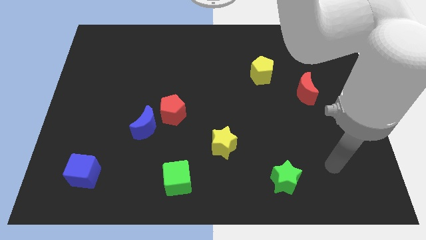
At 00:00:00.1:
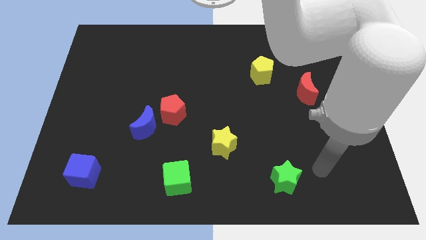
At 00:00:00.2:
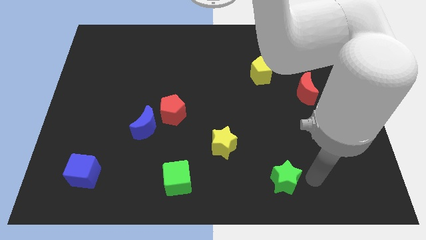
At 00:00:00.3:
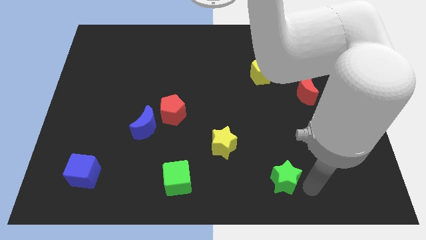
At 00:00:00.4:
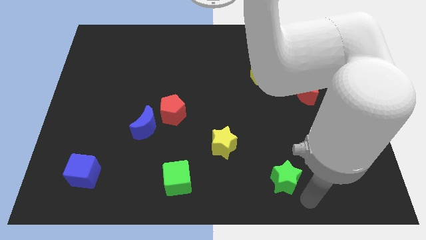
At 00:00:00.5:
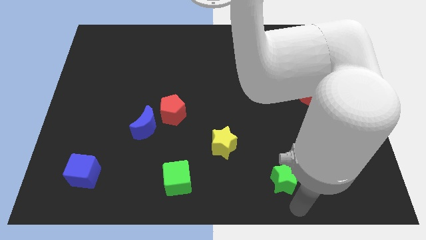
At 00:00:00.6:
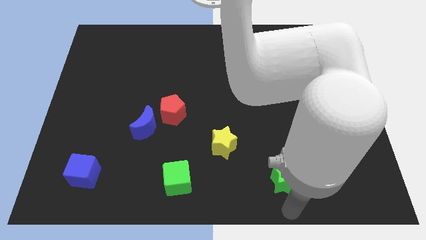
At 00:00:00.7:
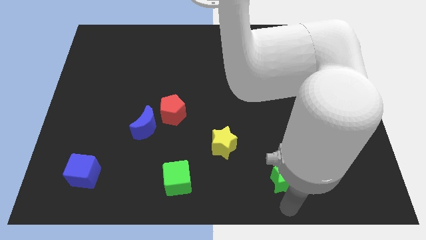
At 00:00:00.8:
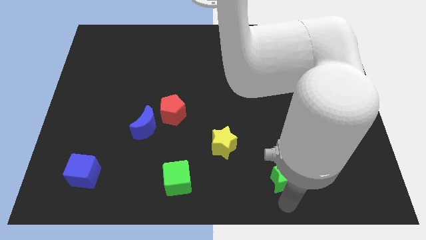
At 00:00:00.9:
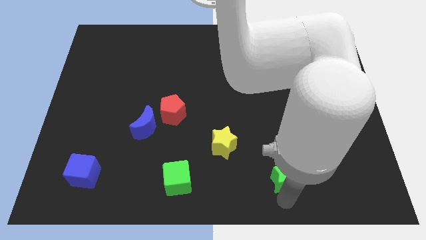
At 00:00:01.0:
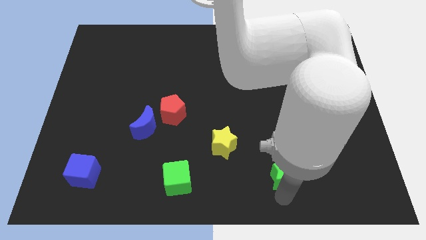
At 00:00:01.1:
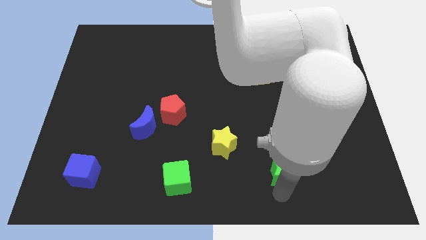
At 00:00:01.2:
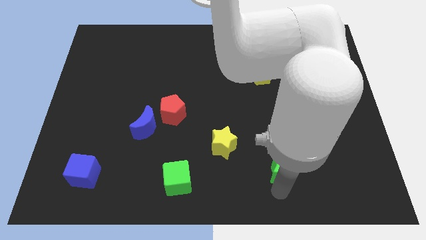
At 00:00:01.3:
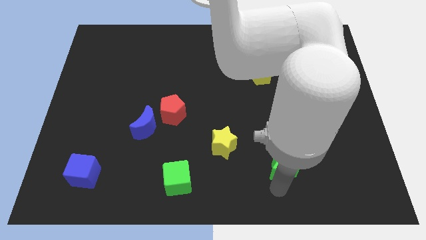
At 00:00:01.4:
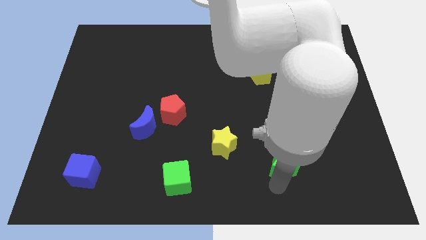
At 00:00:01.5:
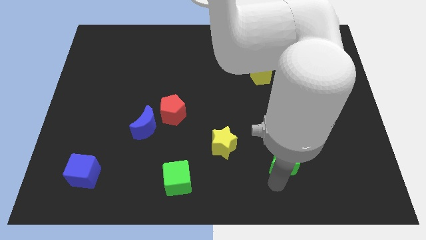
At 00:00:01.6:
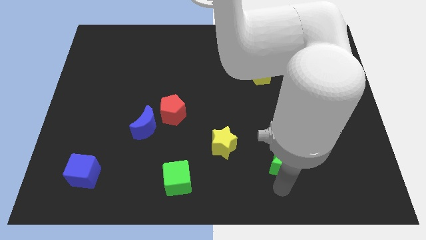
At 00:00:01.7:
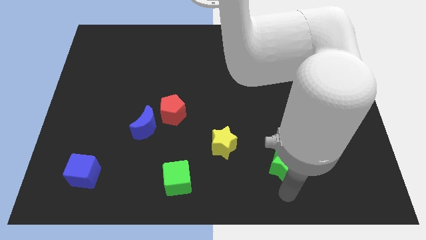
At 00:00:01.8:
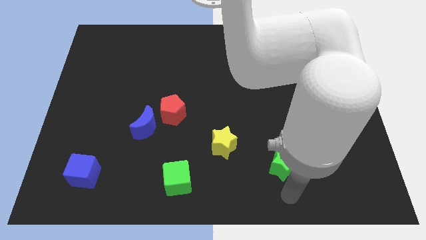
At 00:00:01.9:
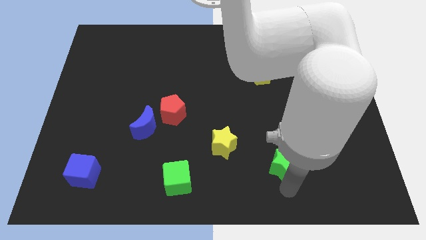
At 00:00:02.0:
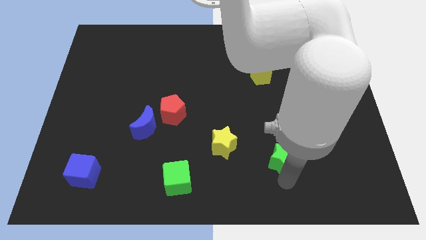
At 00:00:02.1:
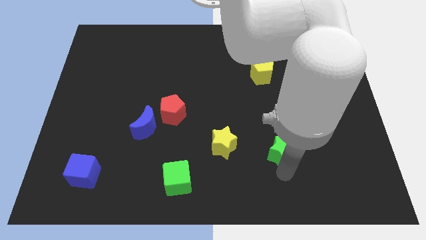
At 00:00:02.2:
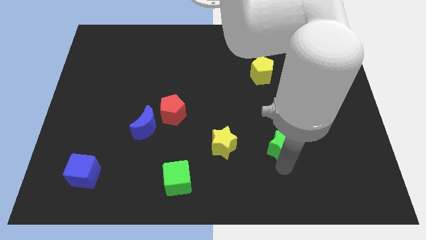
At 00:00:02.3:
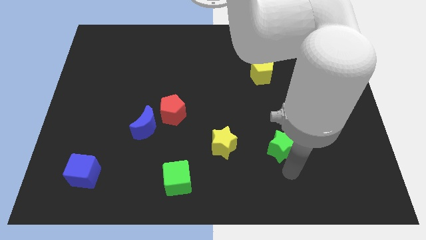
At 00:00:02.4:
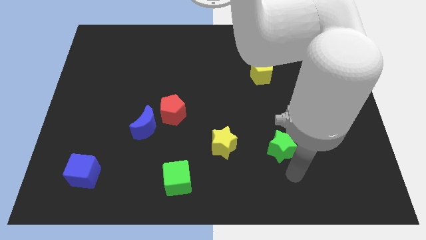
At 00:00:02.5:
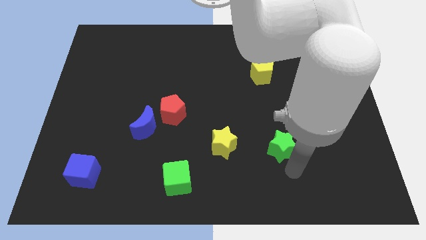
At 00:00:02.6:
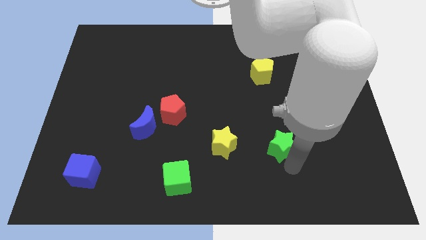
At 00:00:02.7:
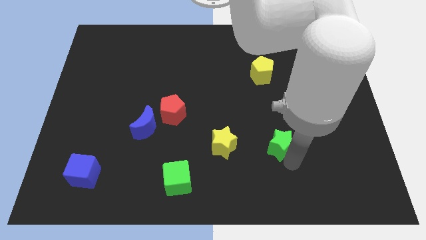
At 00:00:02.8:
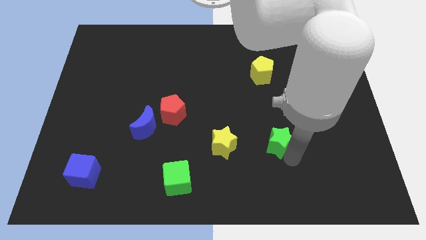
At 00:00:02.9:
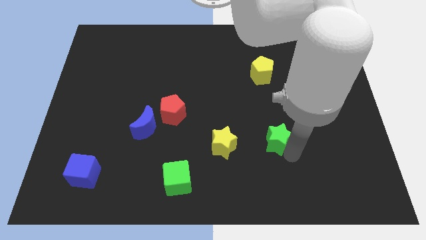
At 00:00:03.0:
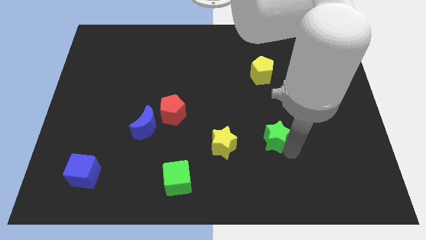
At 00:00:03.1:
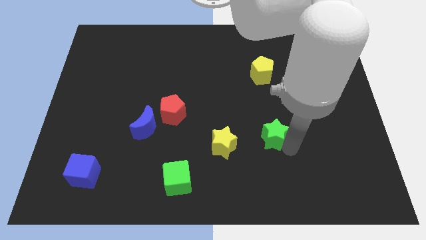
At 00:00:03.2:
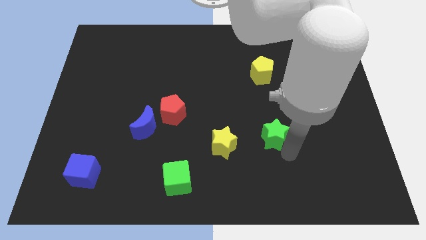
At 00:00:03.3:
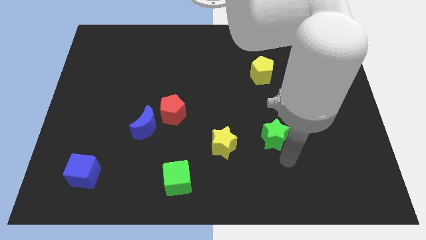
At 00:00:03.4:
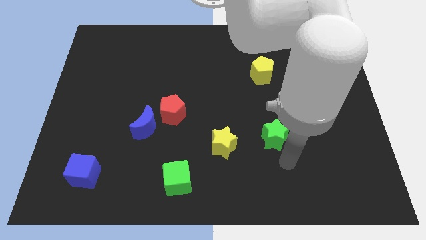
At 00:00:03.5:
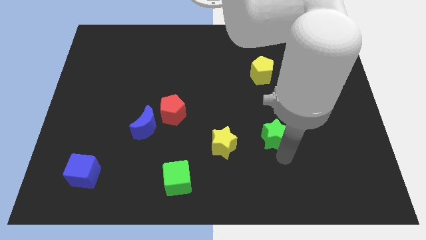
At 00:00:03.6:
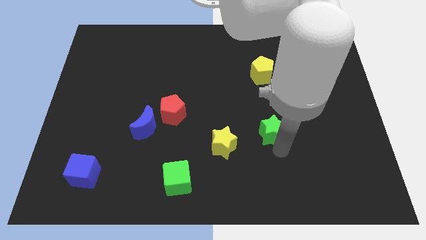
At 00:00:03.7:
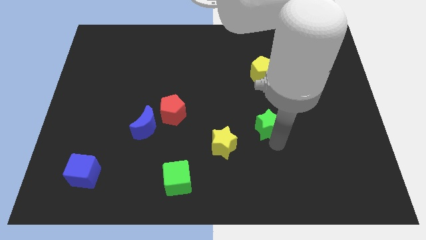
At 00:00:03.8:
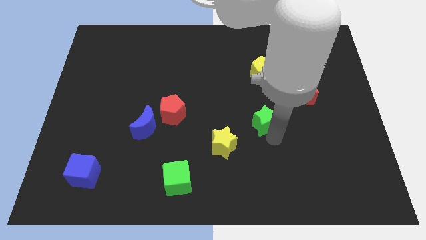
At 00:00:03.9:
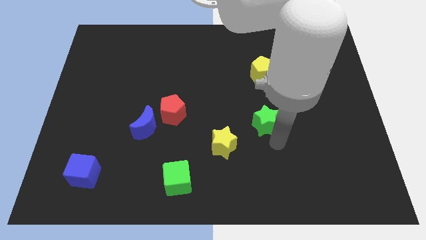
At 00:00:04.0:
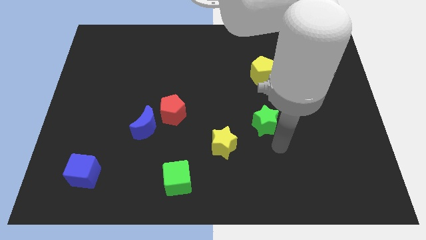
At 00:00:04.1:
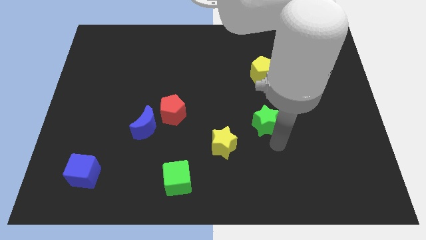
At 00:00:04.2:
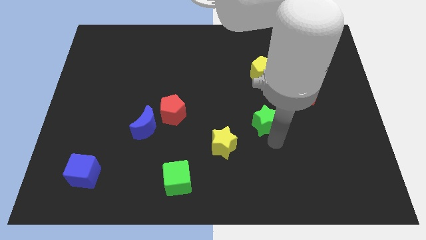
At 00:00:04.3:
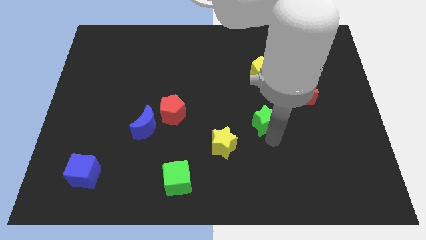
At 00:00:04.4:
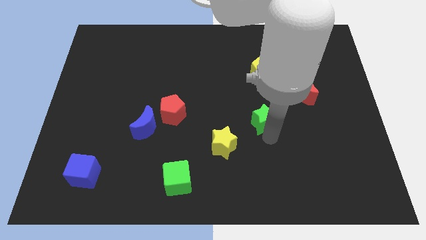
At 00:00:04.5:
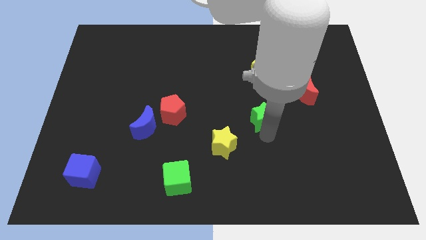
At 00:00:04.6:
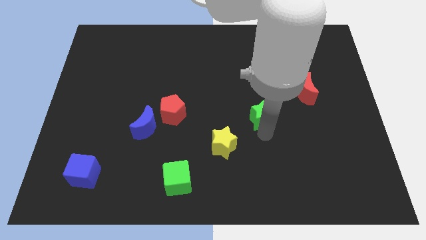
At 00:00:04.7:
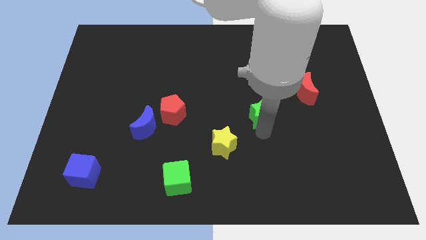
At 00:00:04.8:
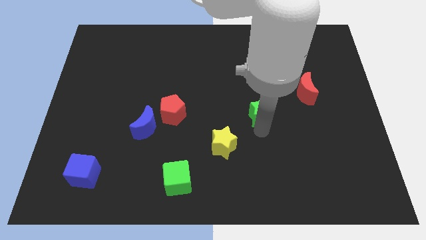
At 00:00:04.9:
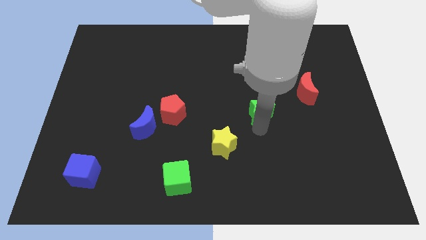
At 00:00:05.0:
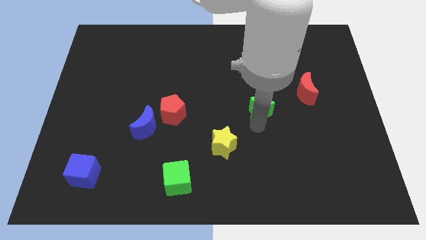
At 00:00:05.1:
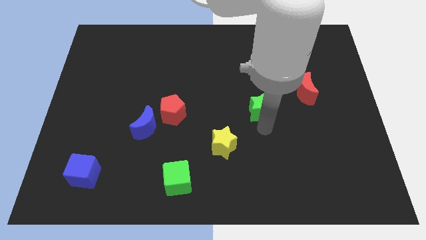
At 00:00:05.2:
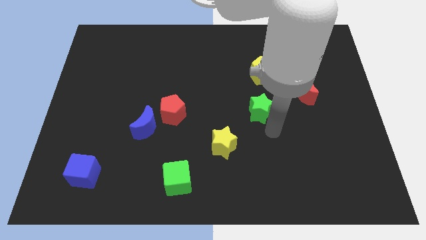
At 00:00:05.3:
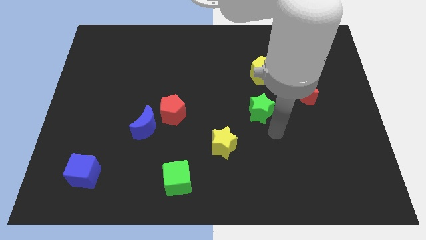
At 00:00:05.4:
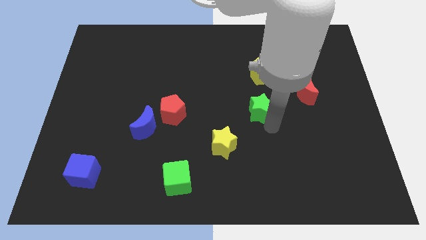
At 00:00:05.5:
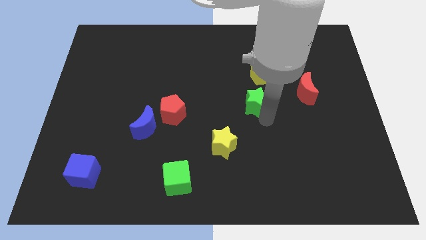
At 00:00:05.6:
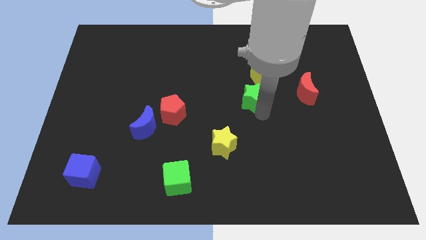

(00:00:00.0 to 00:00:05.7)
push the green star to the bottom left side of the yellow pentagon

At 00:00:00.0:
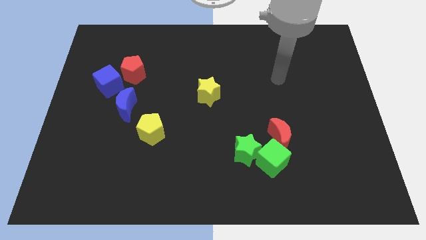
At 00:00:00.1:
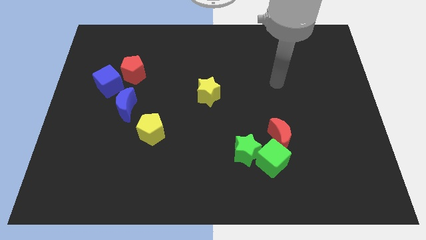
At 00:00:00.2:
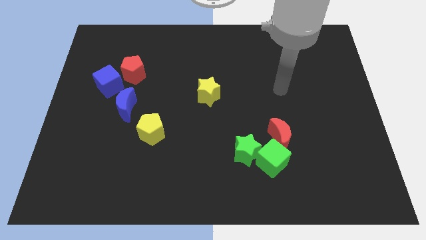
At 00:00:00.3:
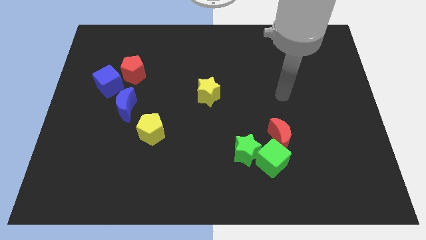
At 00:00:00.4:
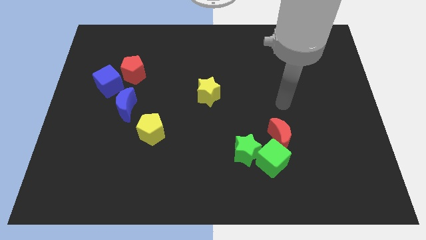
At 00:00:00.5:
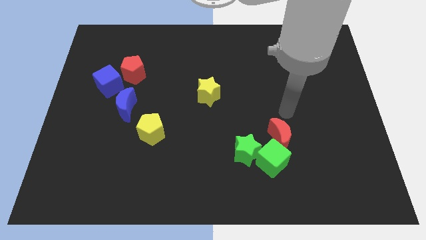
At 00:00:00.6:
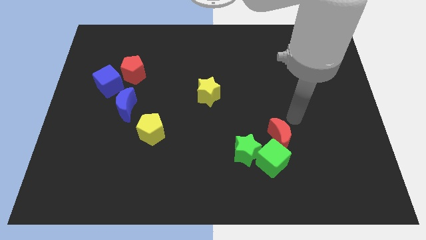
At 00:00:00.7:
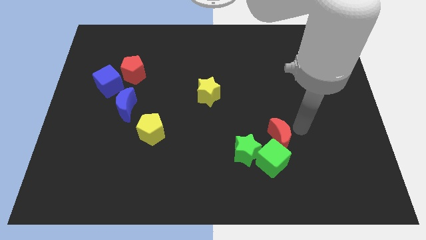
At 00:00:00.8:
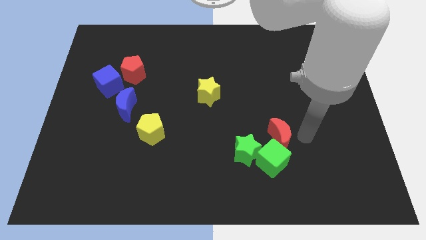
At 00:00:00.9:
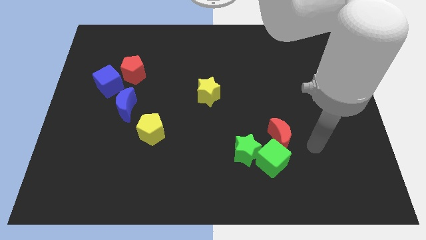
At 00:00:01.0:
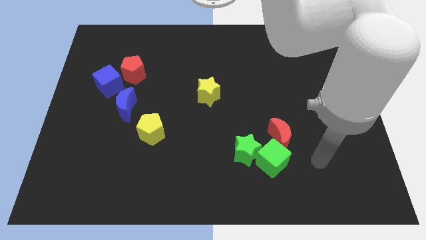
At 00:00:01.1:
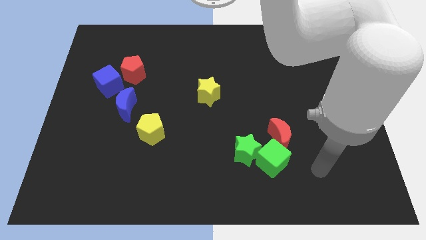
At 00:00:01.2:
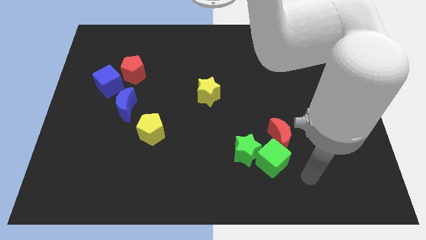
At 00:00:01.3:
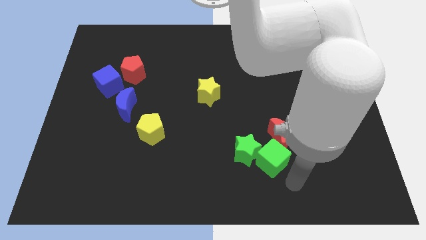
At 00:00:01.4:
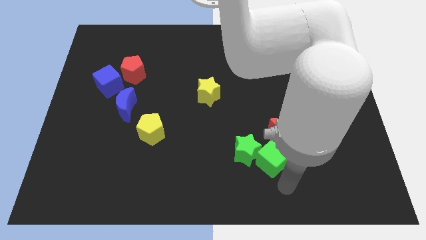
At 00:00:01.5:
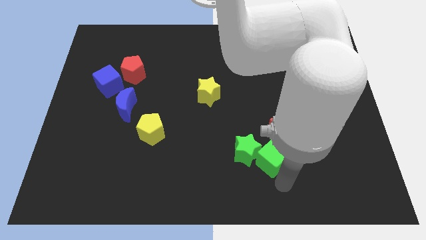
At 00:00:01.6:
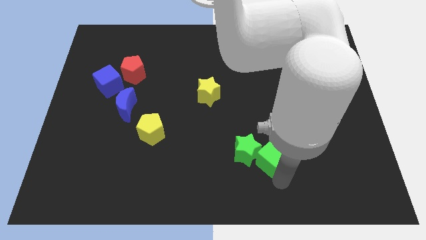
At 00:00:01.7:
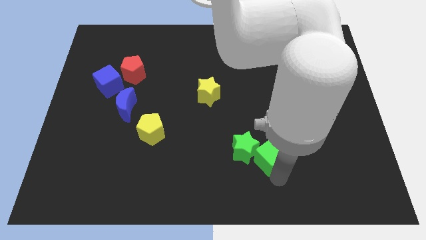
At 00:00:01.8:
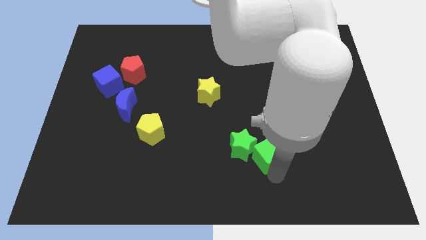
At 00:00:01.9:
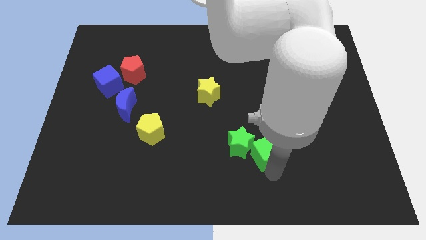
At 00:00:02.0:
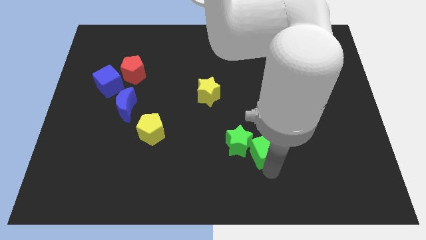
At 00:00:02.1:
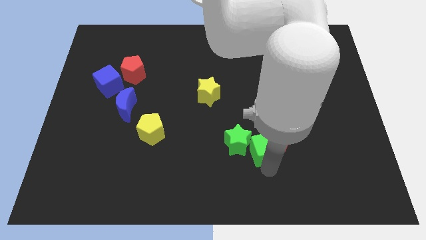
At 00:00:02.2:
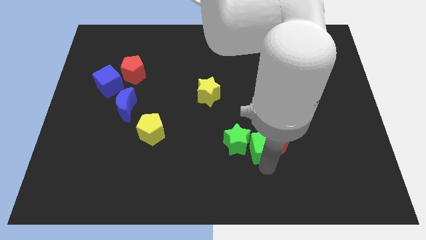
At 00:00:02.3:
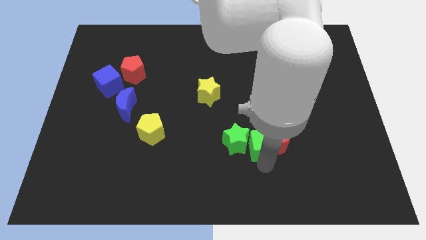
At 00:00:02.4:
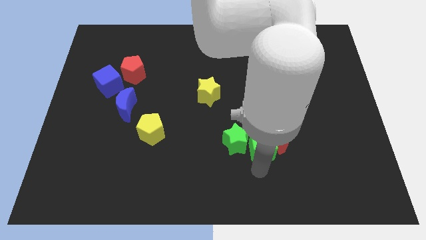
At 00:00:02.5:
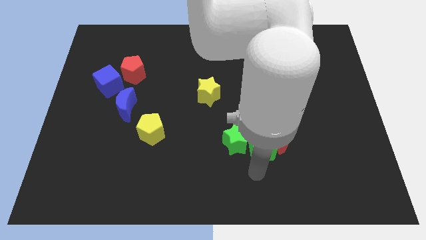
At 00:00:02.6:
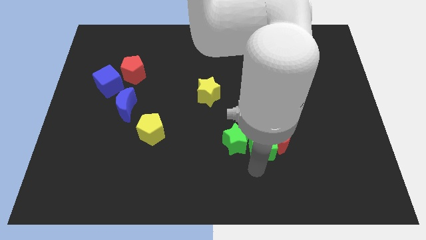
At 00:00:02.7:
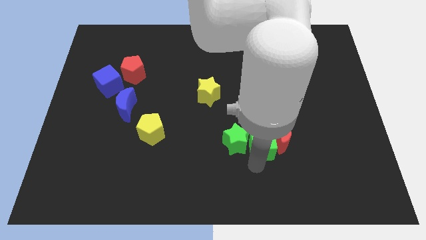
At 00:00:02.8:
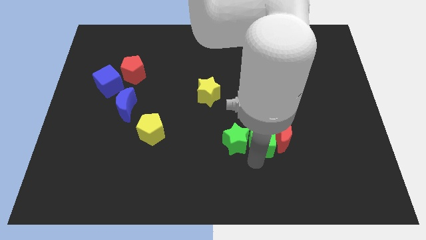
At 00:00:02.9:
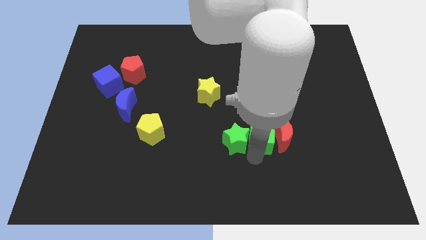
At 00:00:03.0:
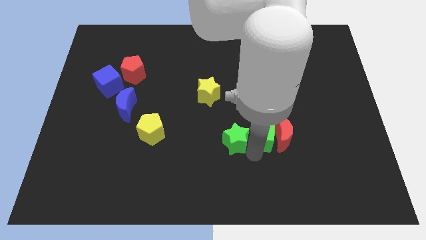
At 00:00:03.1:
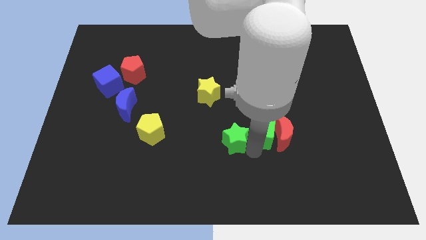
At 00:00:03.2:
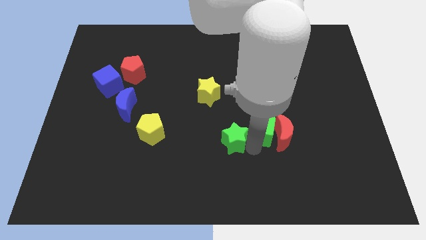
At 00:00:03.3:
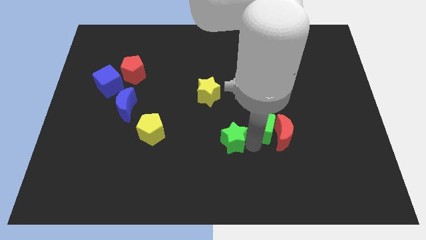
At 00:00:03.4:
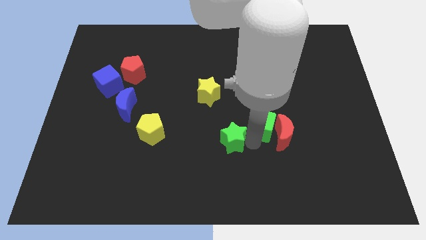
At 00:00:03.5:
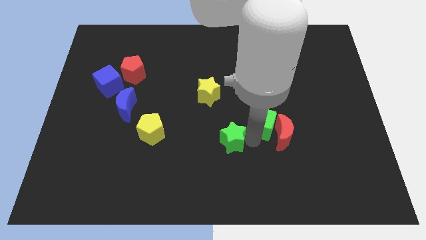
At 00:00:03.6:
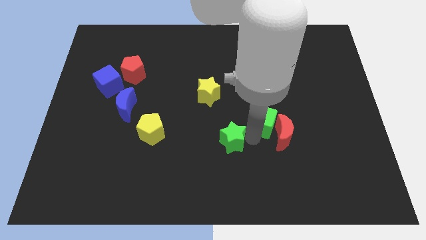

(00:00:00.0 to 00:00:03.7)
slide the green cube to the top side of the red moon
